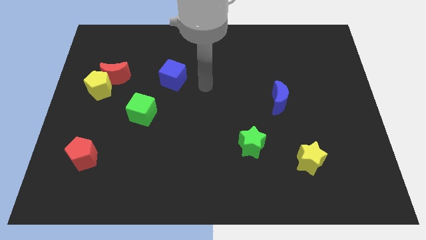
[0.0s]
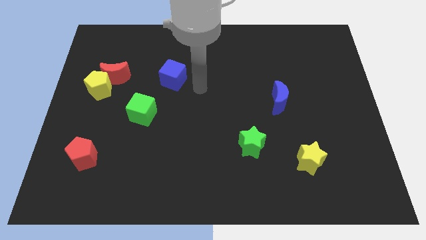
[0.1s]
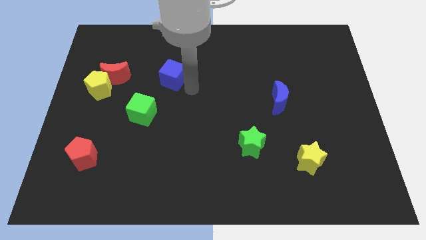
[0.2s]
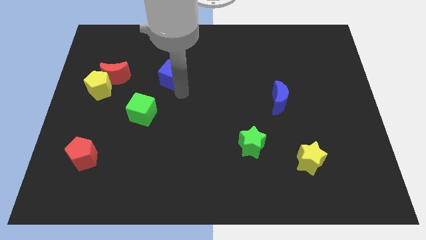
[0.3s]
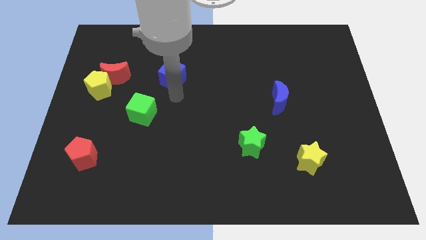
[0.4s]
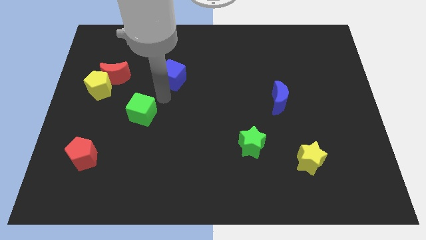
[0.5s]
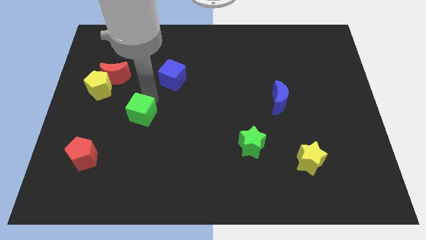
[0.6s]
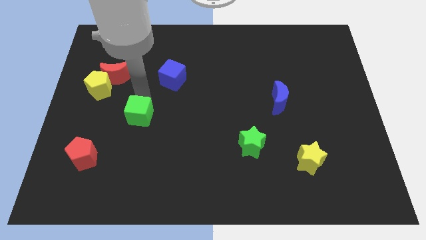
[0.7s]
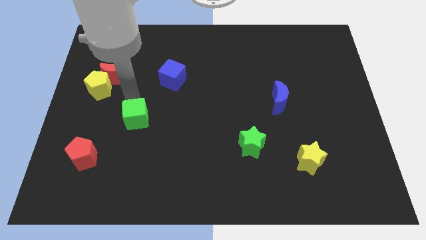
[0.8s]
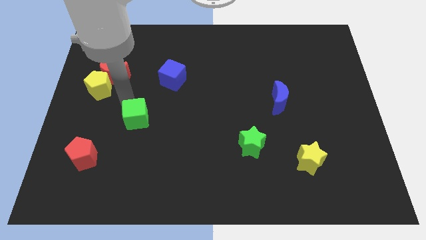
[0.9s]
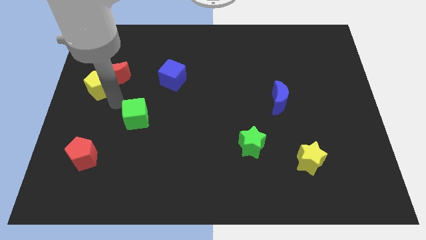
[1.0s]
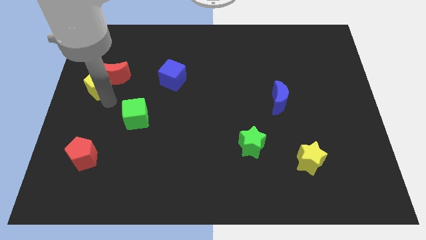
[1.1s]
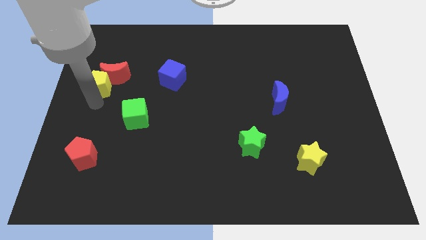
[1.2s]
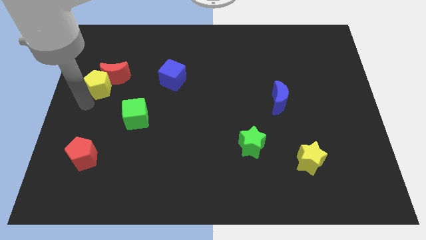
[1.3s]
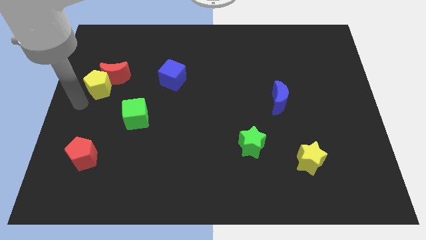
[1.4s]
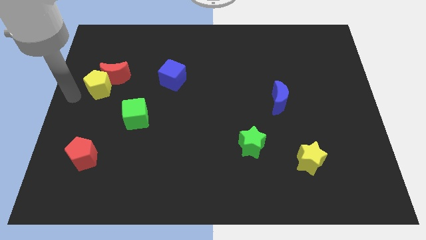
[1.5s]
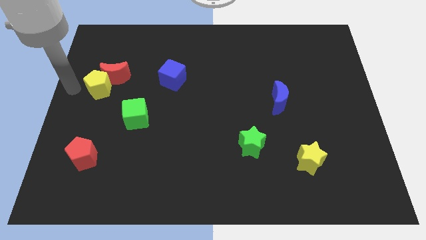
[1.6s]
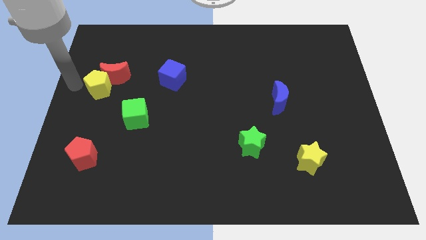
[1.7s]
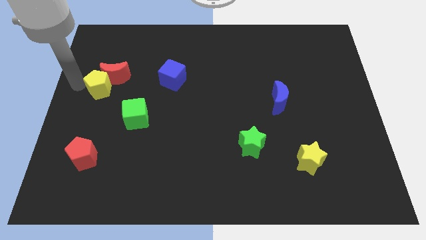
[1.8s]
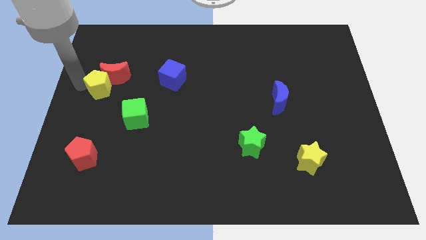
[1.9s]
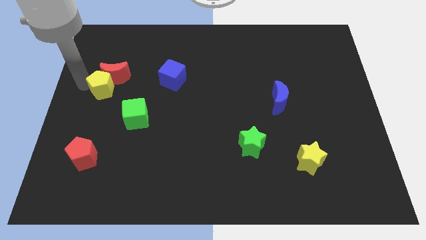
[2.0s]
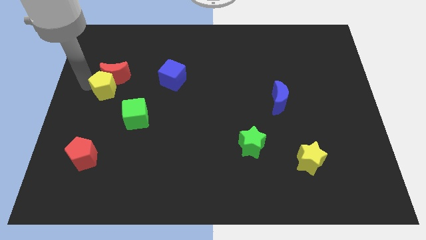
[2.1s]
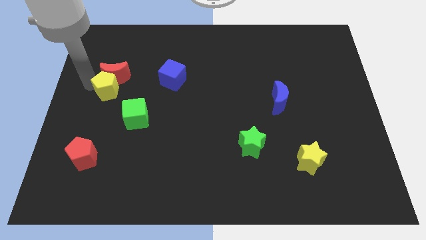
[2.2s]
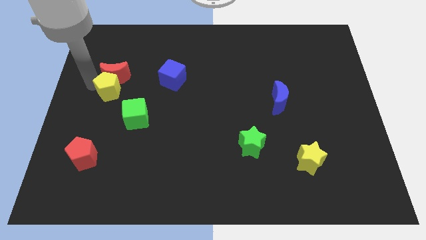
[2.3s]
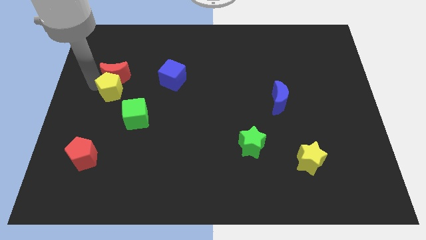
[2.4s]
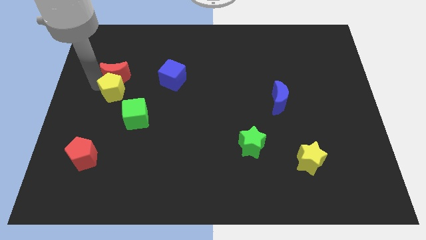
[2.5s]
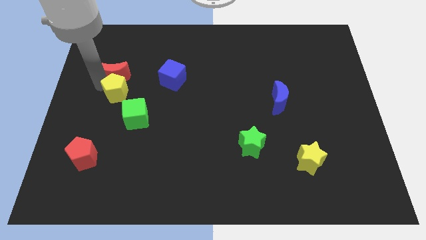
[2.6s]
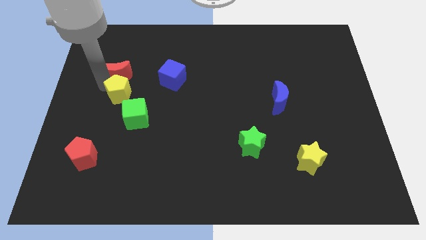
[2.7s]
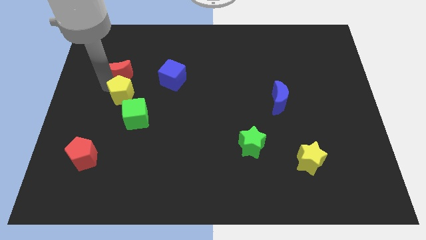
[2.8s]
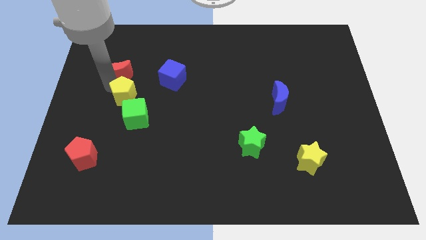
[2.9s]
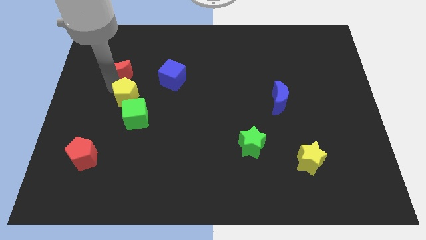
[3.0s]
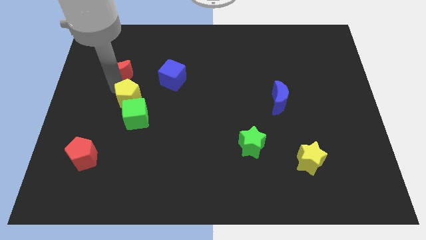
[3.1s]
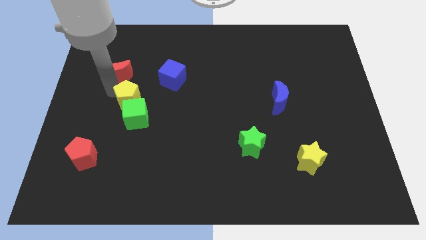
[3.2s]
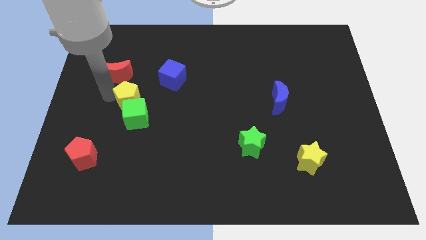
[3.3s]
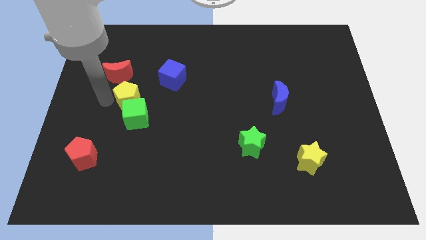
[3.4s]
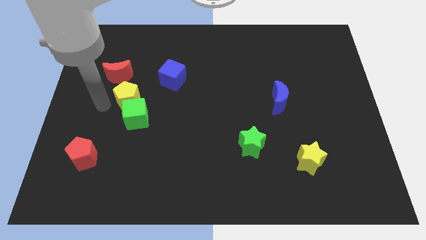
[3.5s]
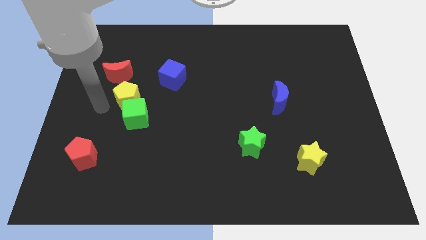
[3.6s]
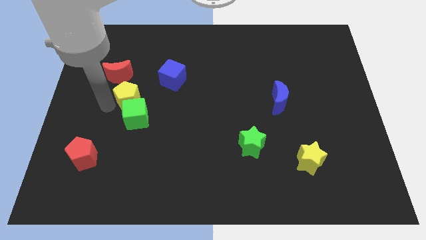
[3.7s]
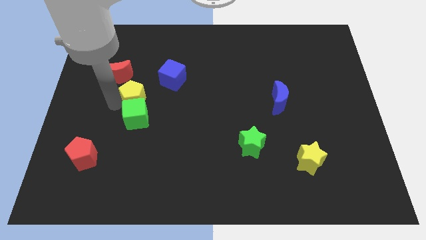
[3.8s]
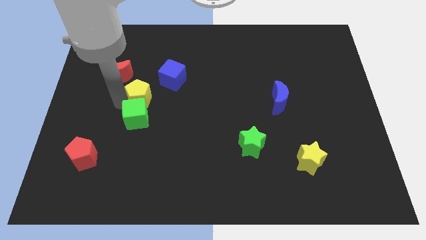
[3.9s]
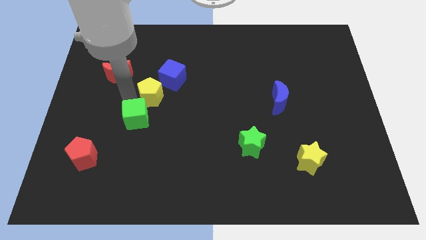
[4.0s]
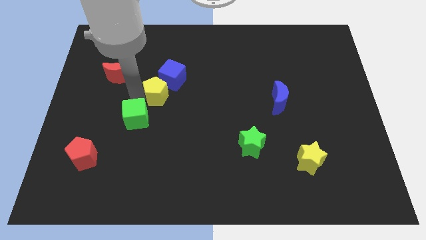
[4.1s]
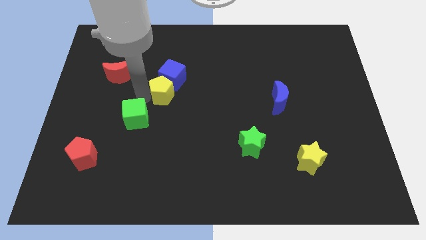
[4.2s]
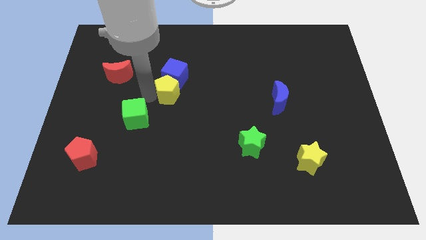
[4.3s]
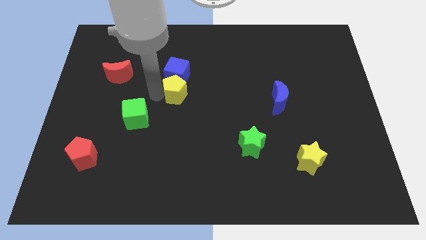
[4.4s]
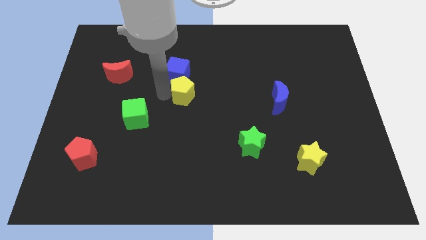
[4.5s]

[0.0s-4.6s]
slide the yellow pentagon to the right

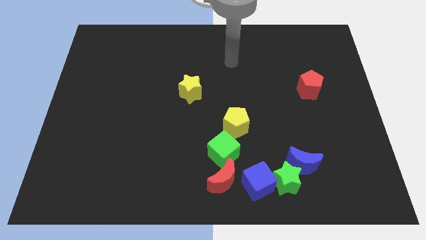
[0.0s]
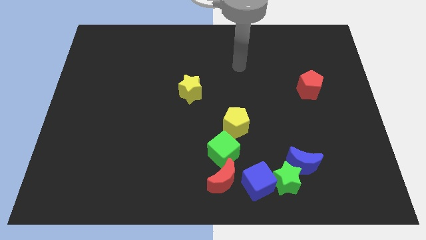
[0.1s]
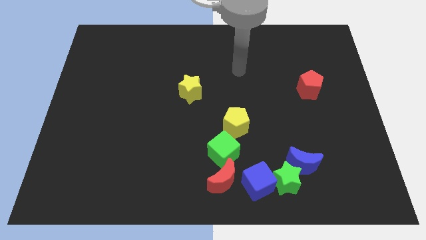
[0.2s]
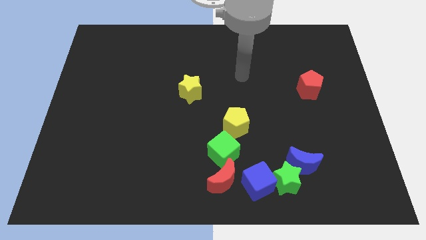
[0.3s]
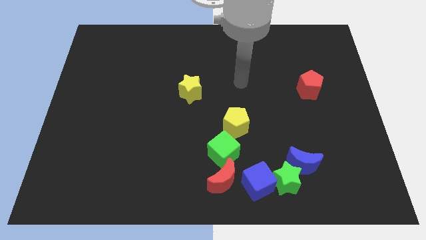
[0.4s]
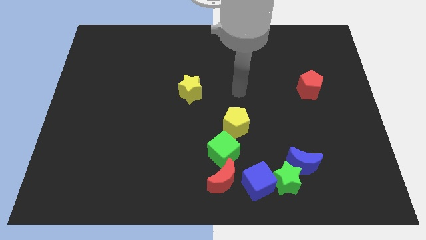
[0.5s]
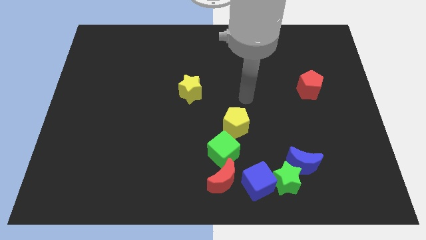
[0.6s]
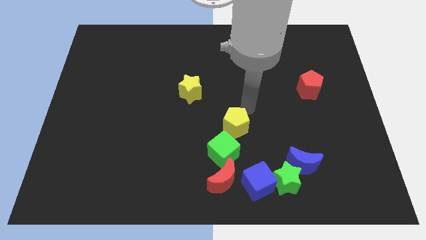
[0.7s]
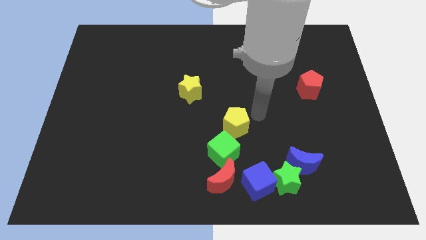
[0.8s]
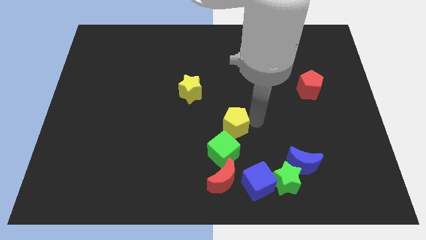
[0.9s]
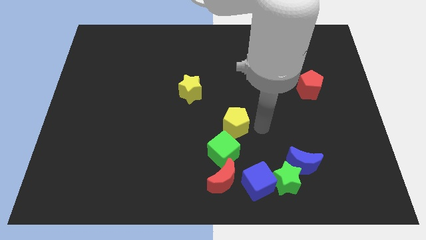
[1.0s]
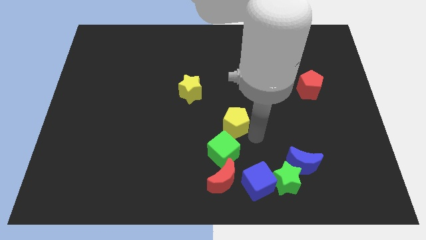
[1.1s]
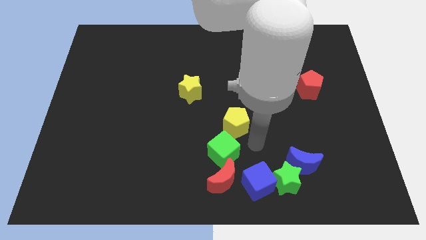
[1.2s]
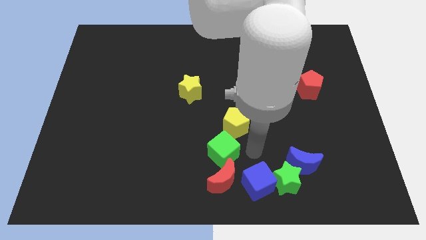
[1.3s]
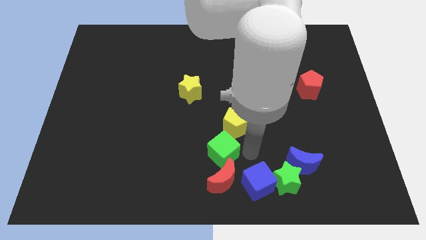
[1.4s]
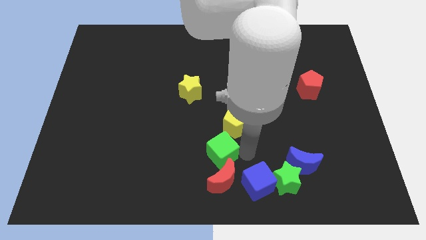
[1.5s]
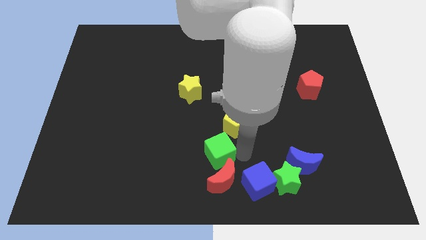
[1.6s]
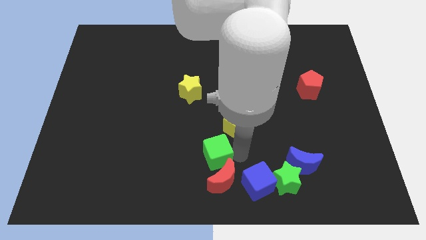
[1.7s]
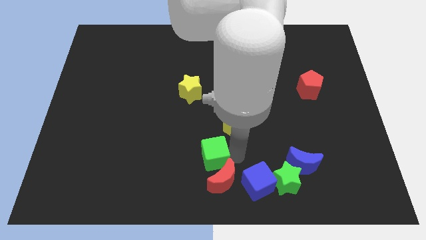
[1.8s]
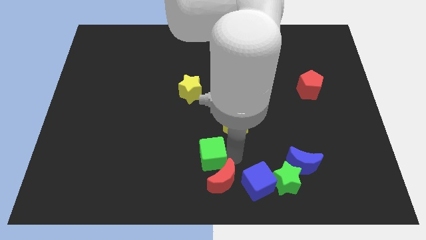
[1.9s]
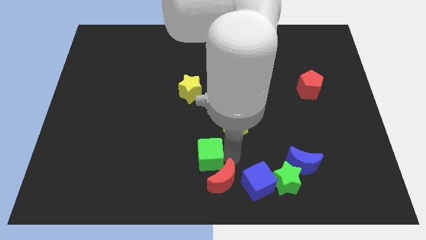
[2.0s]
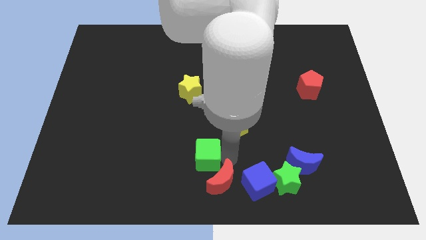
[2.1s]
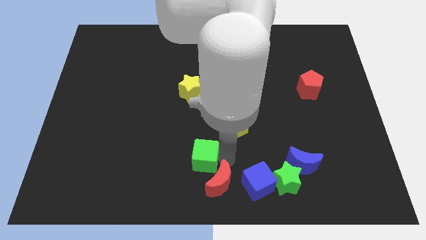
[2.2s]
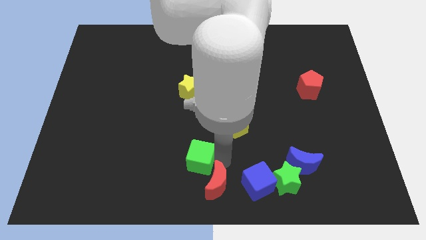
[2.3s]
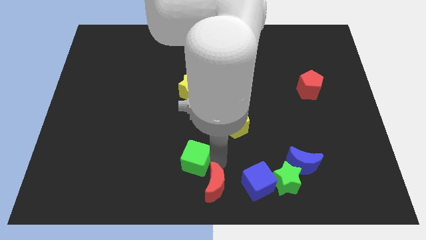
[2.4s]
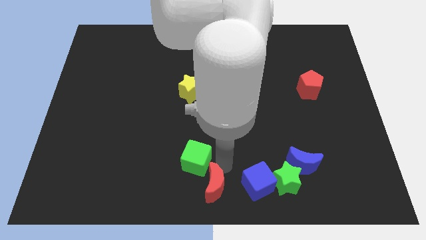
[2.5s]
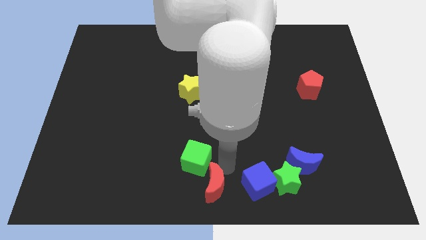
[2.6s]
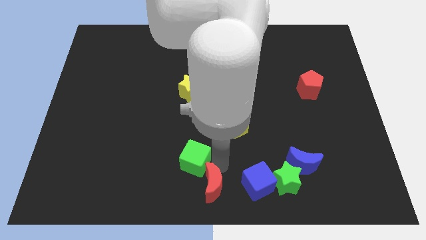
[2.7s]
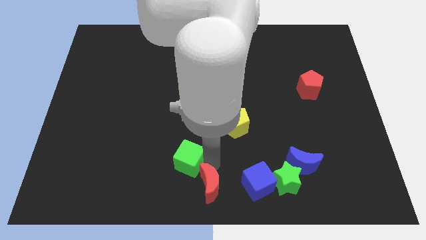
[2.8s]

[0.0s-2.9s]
slightly push the green cube left

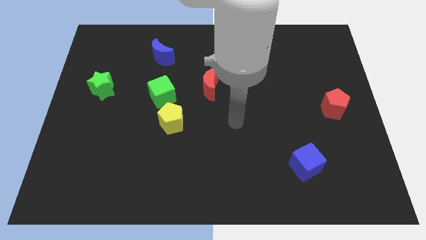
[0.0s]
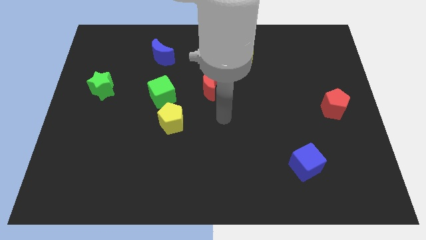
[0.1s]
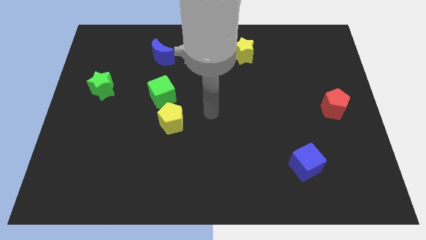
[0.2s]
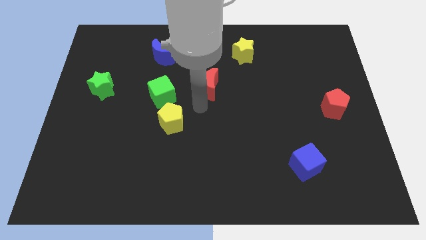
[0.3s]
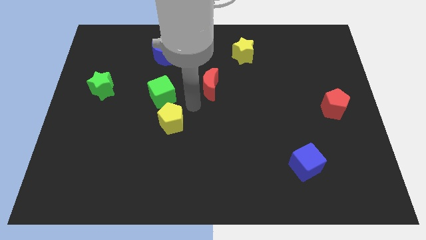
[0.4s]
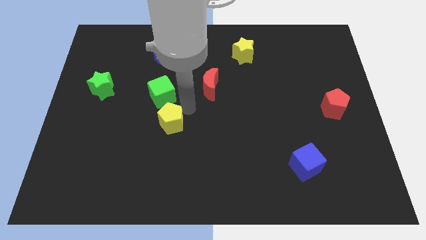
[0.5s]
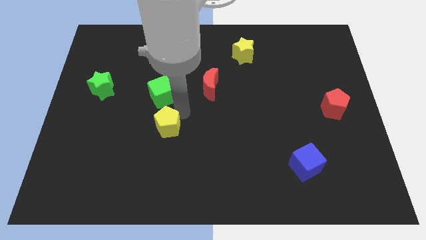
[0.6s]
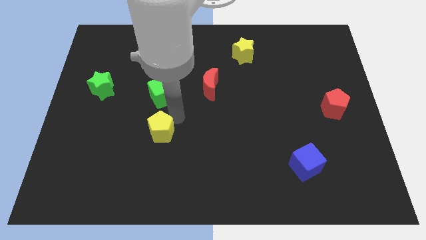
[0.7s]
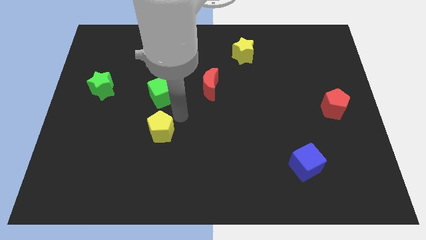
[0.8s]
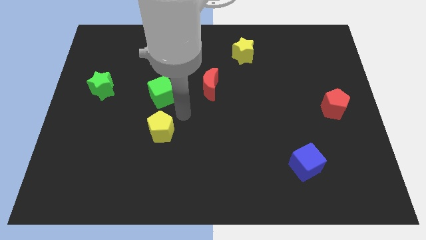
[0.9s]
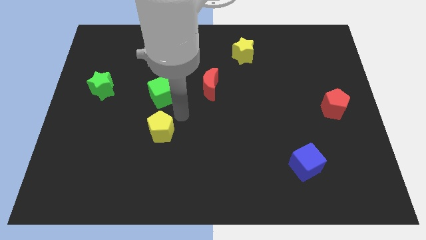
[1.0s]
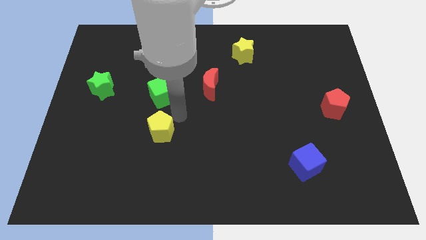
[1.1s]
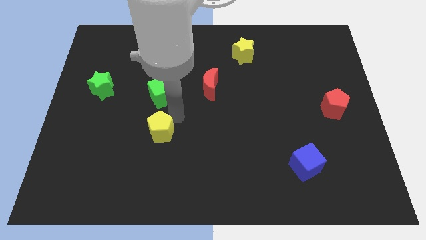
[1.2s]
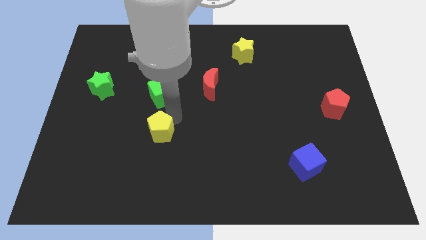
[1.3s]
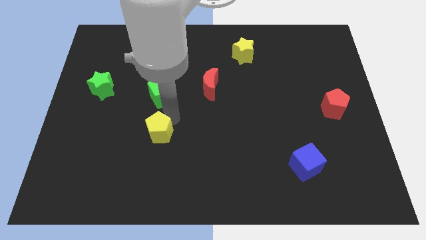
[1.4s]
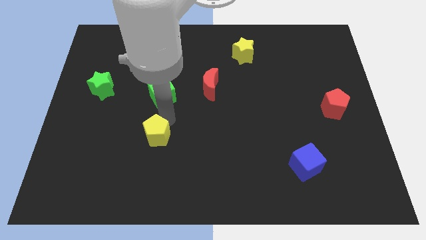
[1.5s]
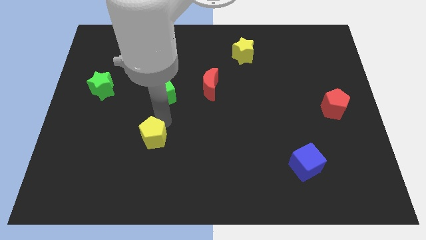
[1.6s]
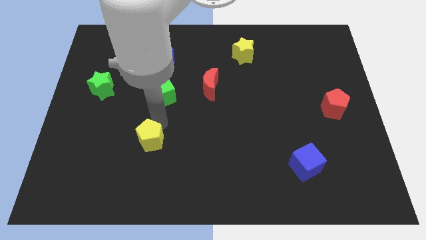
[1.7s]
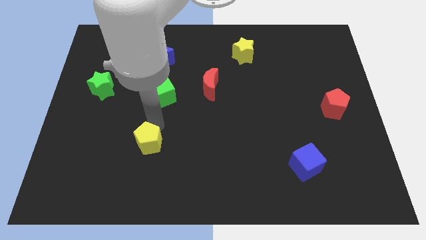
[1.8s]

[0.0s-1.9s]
slightly move the yellow pentagon diagonally downwards and to the left
